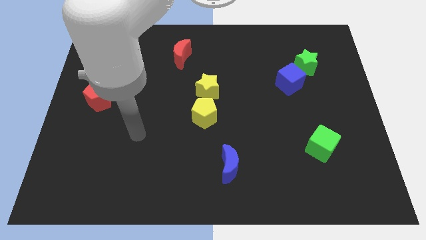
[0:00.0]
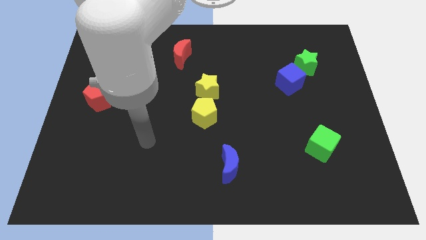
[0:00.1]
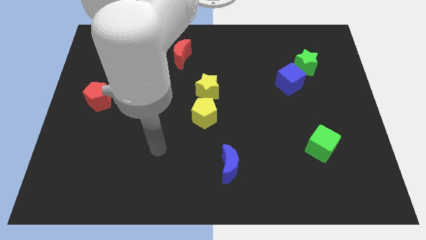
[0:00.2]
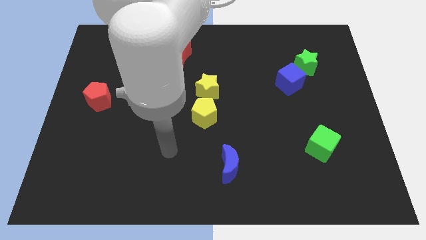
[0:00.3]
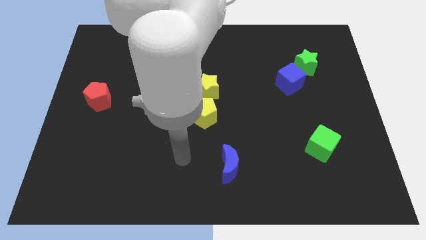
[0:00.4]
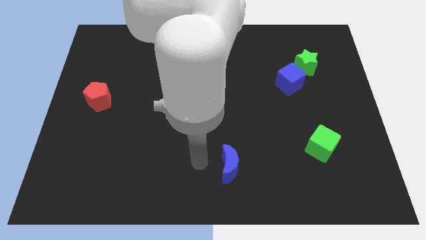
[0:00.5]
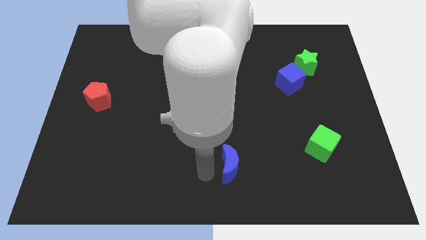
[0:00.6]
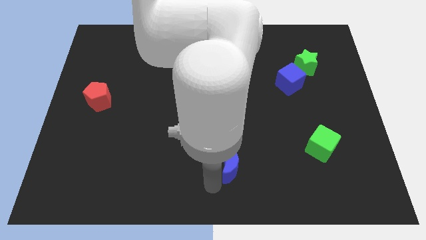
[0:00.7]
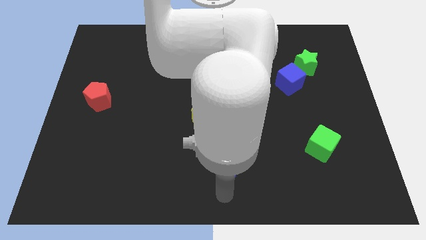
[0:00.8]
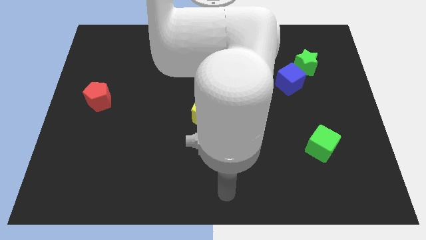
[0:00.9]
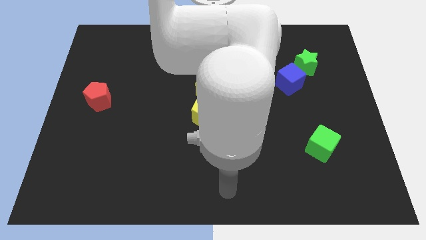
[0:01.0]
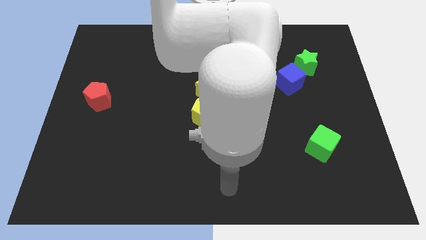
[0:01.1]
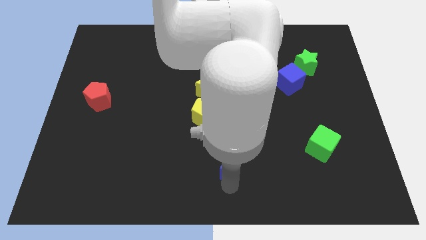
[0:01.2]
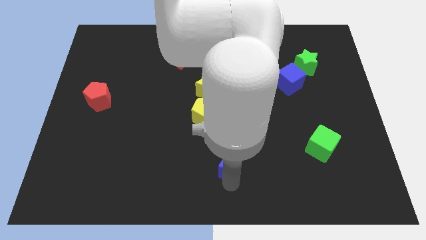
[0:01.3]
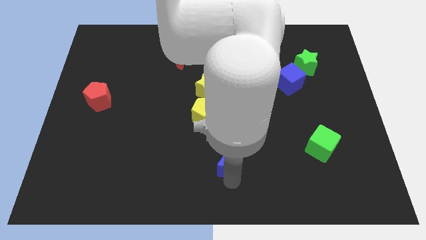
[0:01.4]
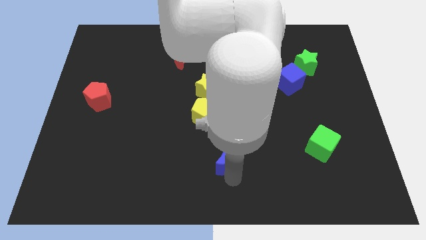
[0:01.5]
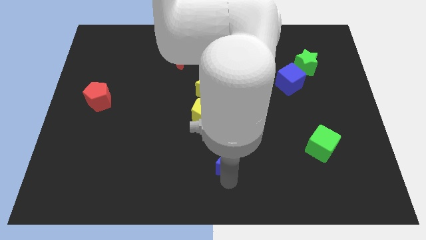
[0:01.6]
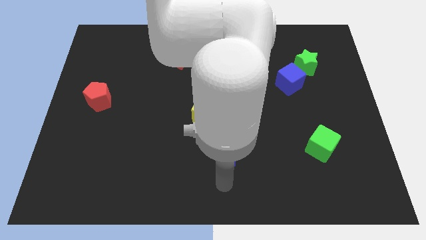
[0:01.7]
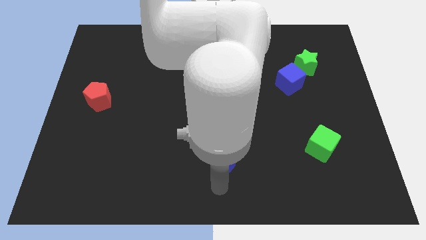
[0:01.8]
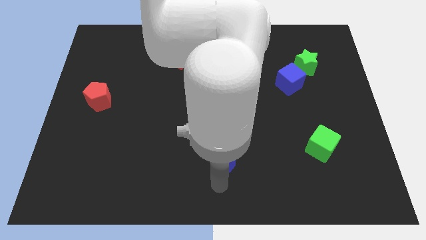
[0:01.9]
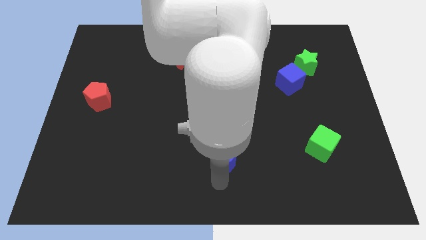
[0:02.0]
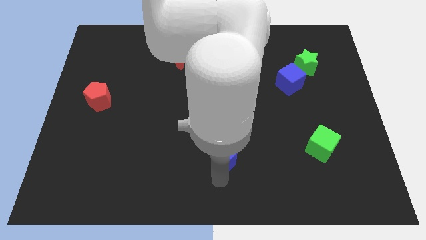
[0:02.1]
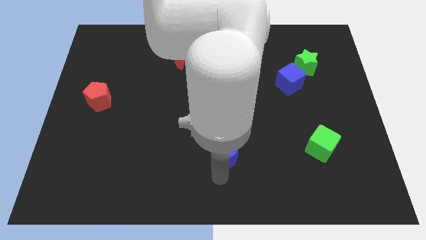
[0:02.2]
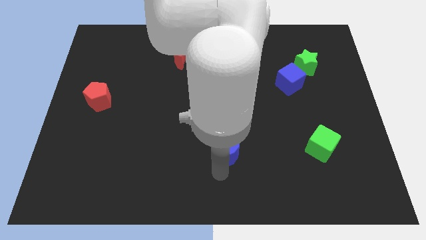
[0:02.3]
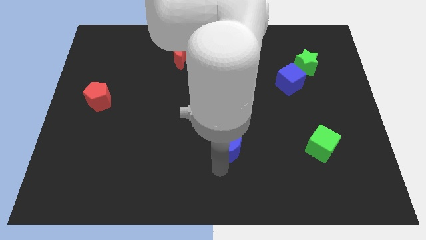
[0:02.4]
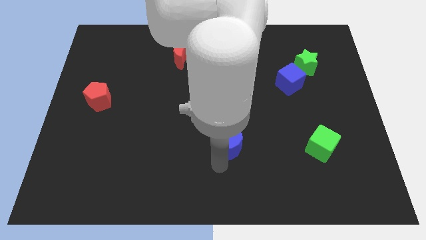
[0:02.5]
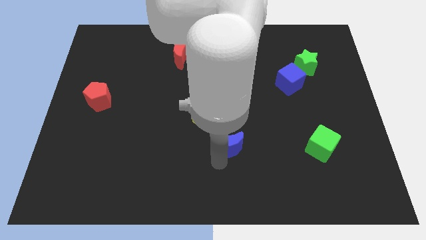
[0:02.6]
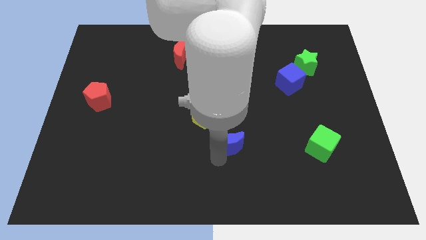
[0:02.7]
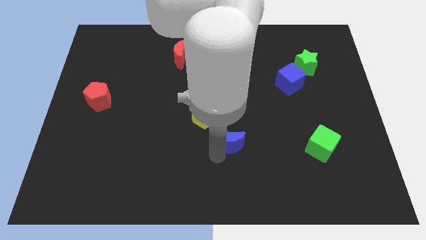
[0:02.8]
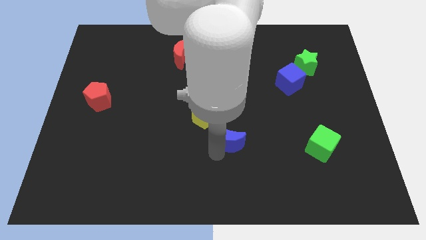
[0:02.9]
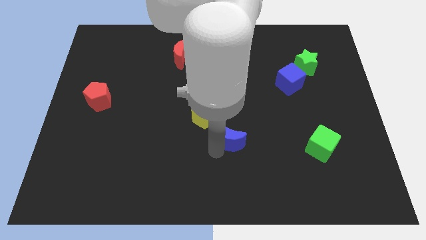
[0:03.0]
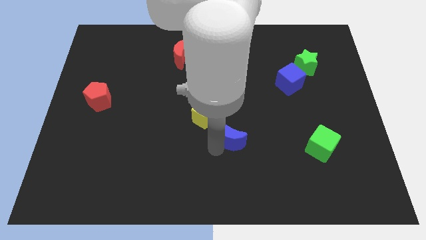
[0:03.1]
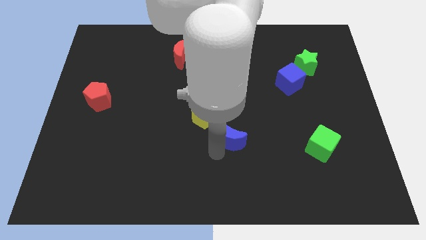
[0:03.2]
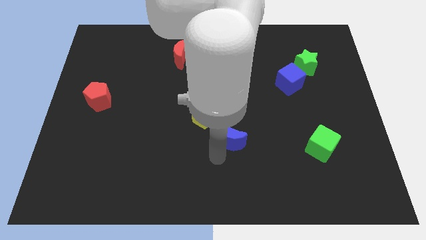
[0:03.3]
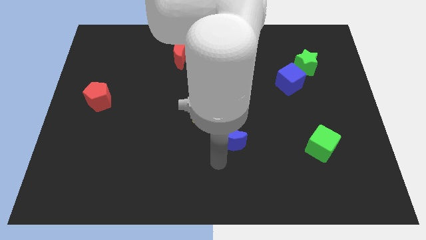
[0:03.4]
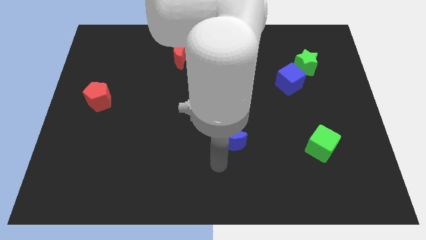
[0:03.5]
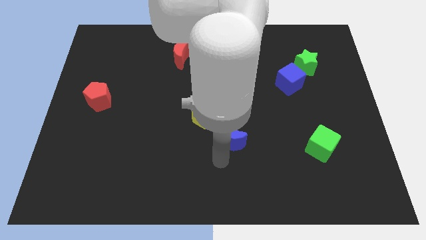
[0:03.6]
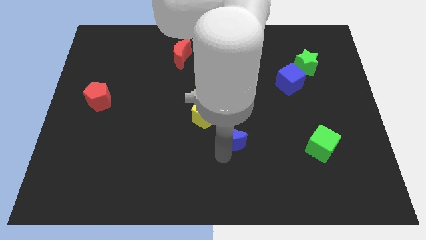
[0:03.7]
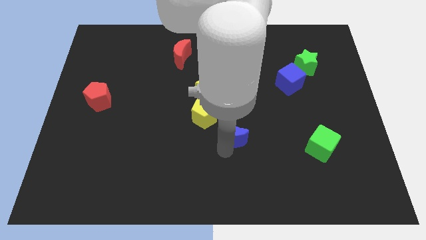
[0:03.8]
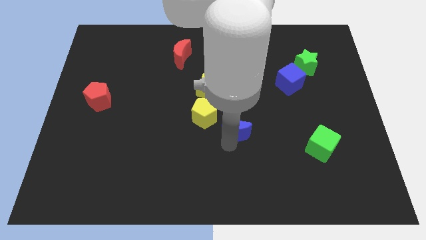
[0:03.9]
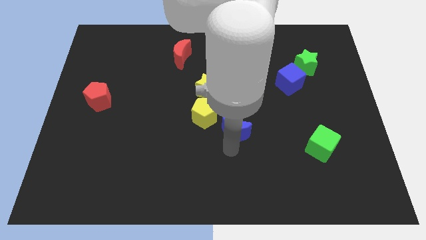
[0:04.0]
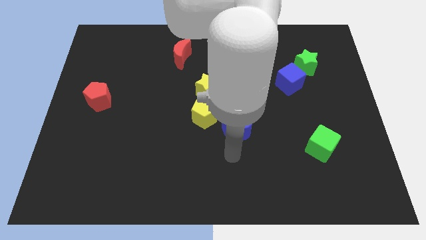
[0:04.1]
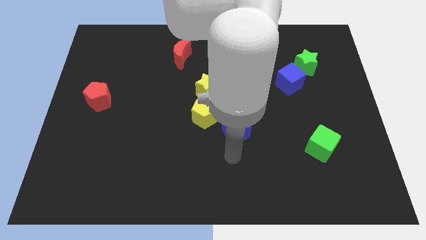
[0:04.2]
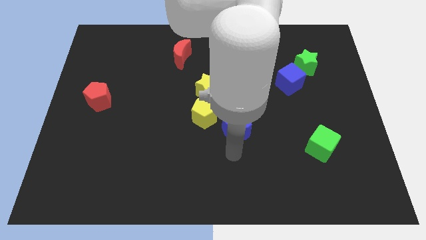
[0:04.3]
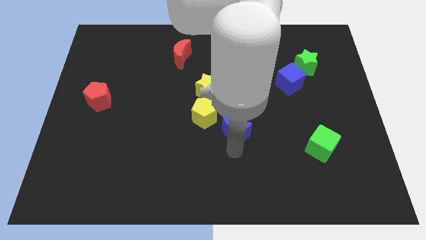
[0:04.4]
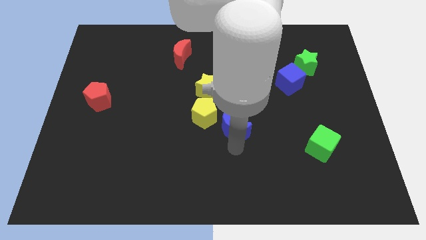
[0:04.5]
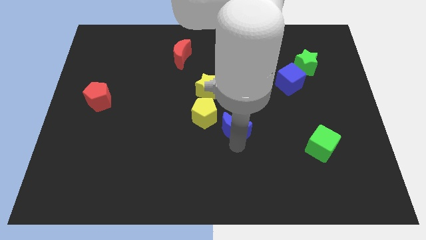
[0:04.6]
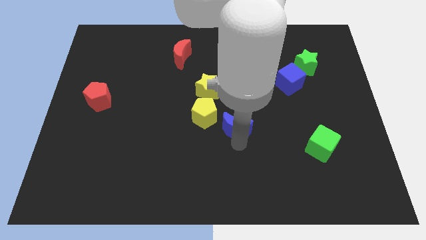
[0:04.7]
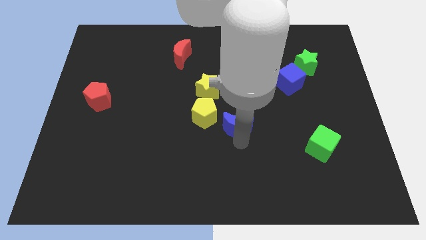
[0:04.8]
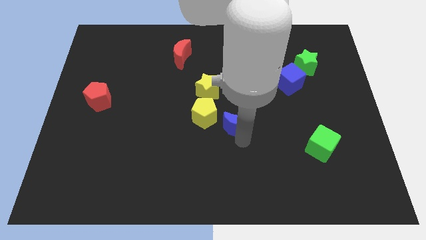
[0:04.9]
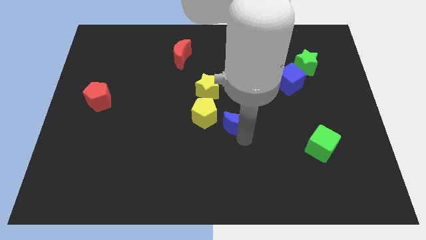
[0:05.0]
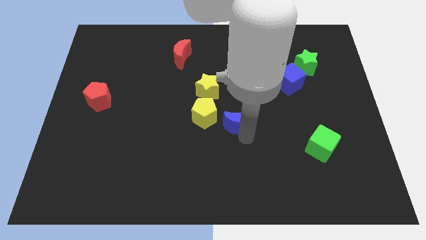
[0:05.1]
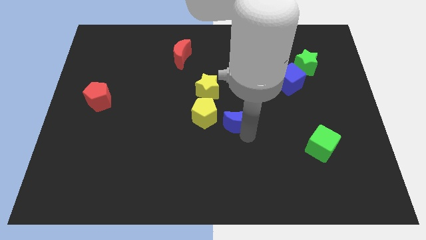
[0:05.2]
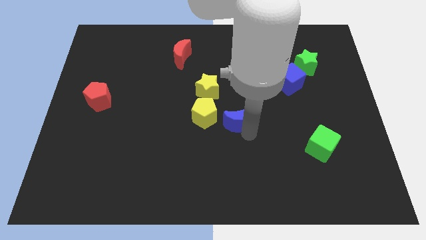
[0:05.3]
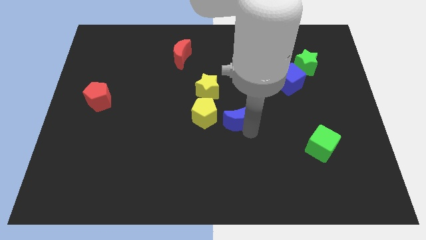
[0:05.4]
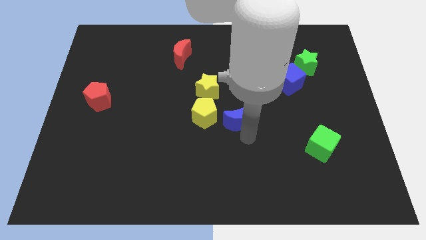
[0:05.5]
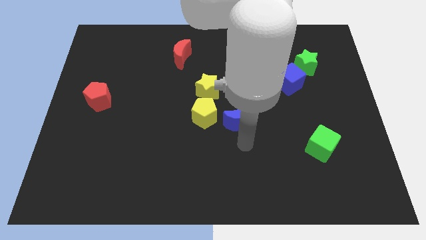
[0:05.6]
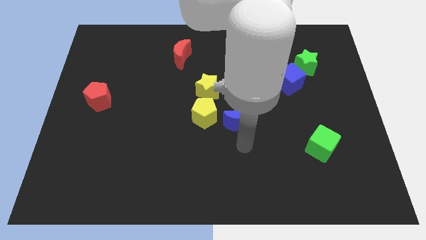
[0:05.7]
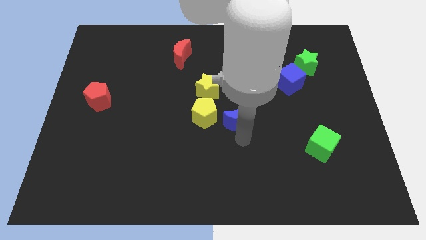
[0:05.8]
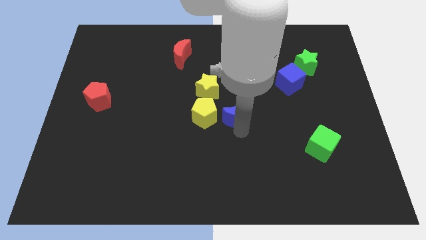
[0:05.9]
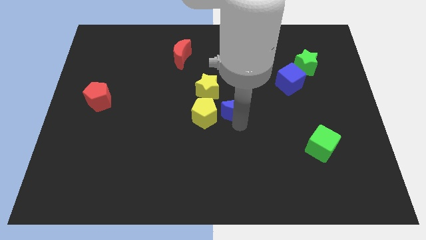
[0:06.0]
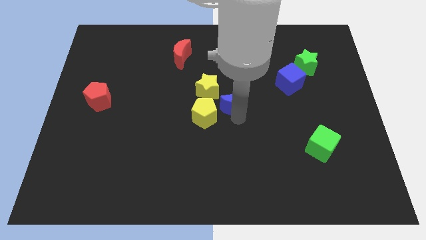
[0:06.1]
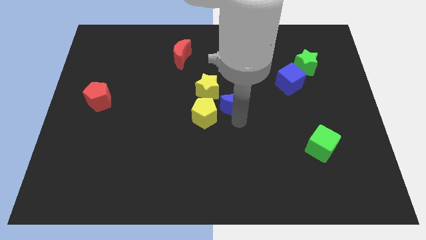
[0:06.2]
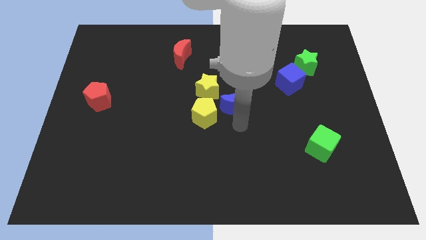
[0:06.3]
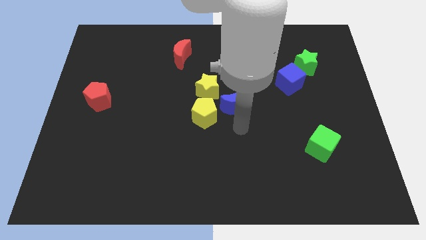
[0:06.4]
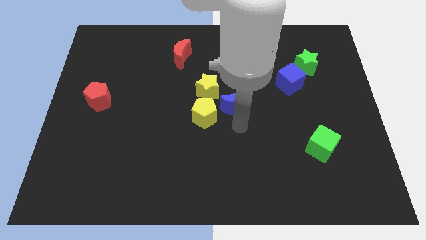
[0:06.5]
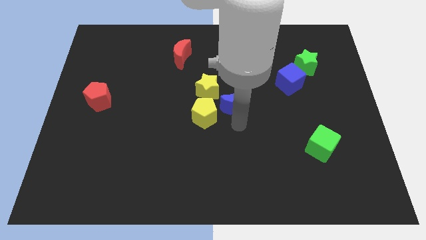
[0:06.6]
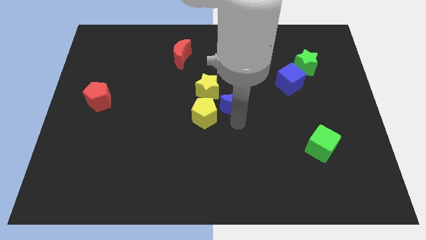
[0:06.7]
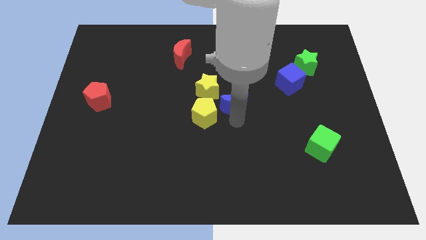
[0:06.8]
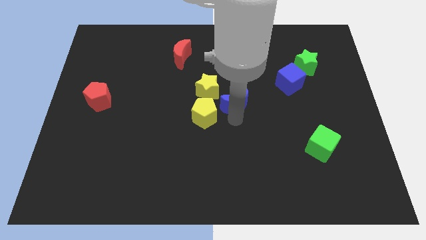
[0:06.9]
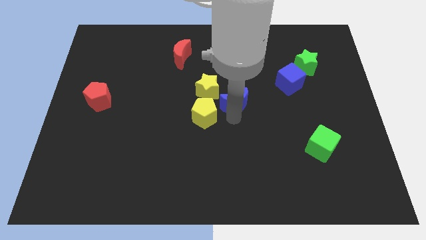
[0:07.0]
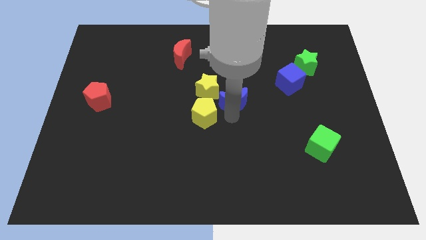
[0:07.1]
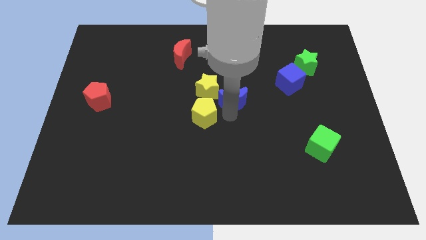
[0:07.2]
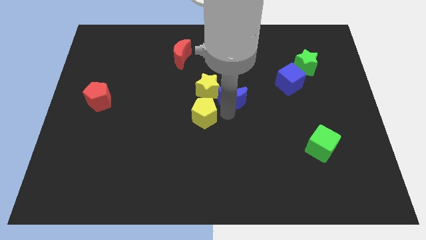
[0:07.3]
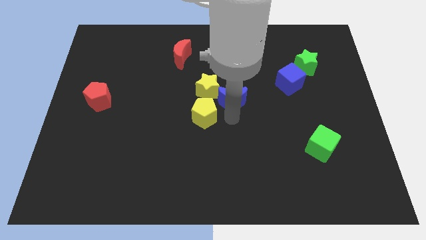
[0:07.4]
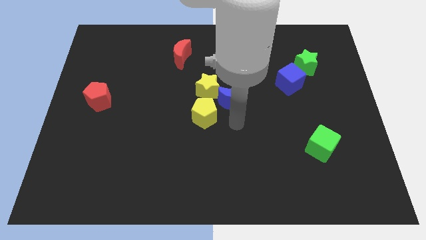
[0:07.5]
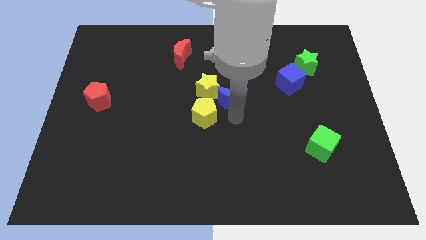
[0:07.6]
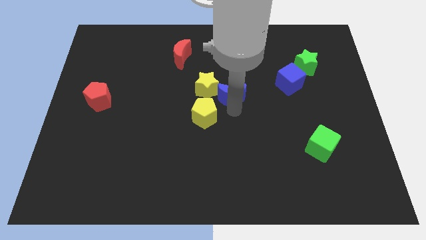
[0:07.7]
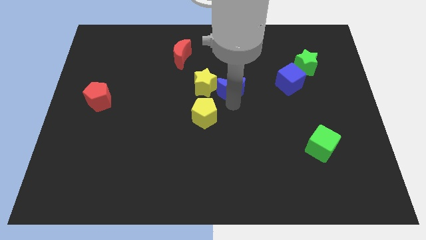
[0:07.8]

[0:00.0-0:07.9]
push the blue moon up

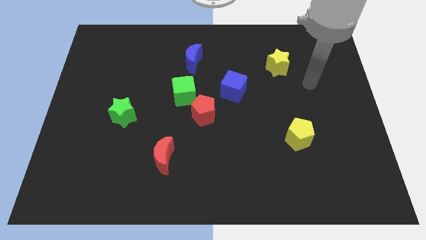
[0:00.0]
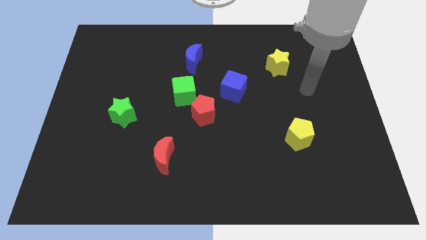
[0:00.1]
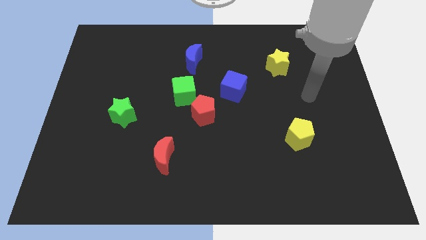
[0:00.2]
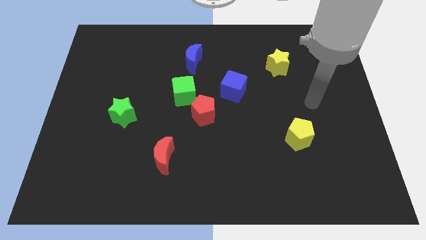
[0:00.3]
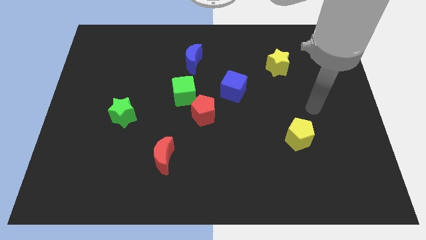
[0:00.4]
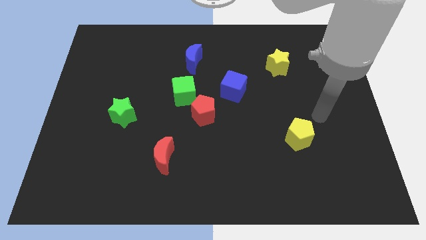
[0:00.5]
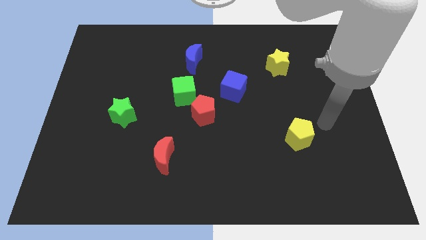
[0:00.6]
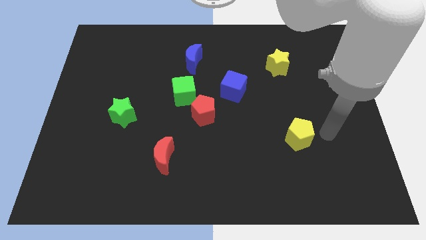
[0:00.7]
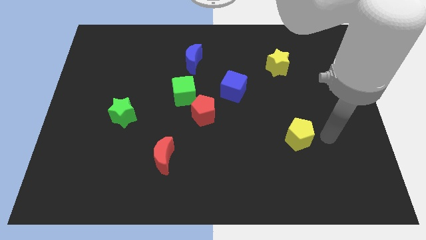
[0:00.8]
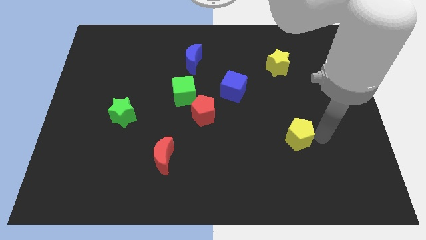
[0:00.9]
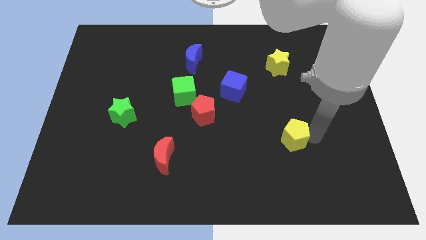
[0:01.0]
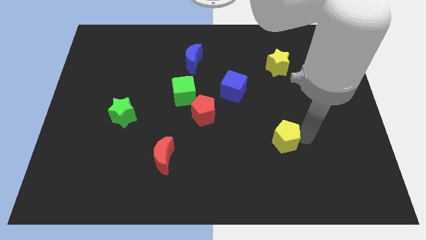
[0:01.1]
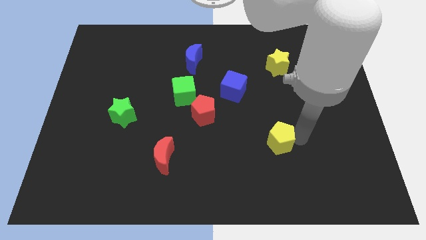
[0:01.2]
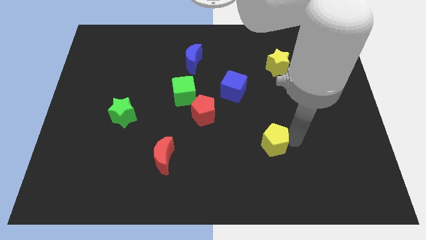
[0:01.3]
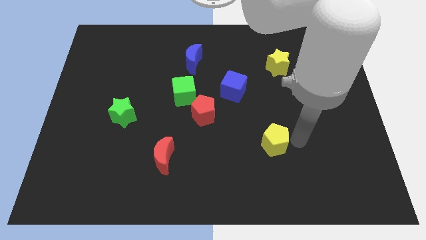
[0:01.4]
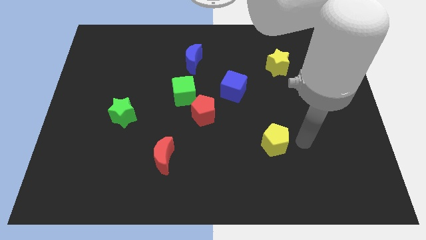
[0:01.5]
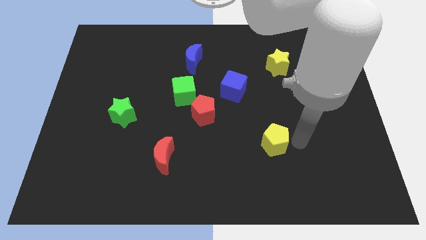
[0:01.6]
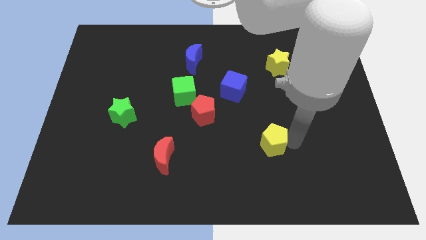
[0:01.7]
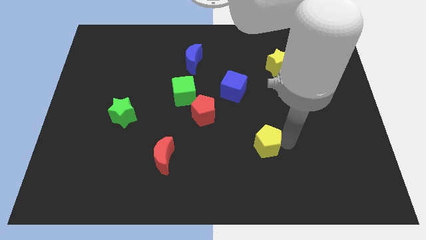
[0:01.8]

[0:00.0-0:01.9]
slide the yellow pentagon to the left slightly
